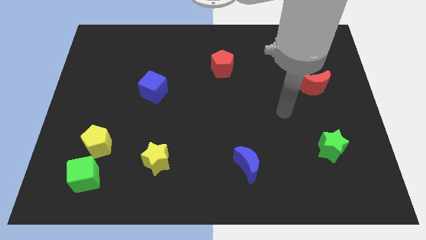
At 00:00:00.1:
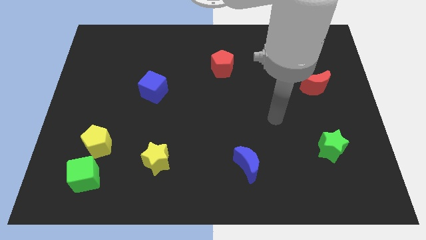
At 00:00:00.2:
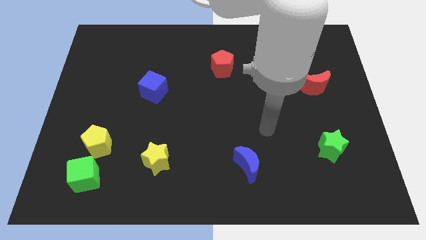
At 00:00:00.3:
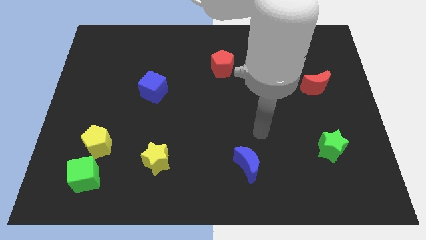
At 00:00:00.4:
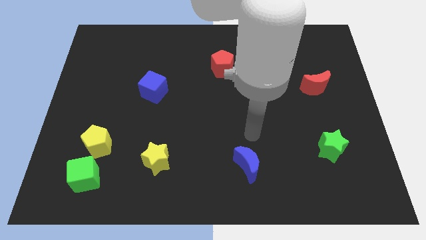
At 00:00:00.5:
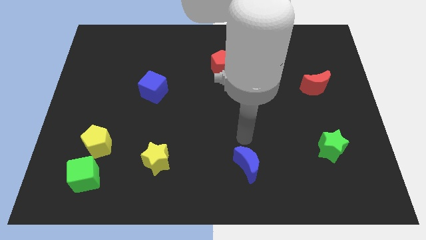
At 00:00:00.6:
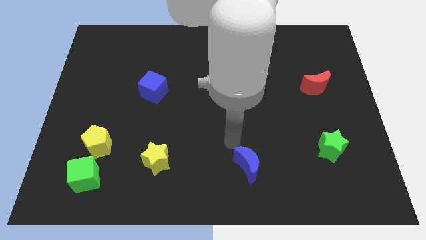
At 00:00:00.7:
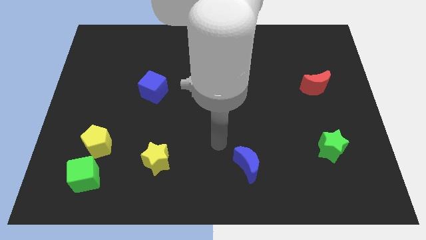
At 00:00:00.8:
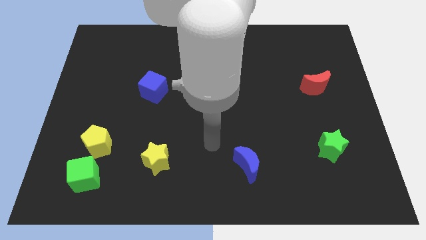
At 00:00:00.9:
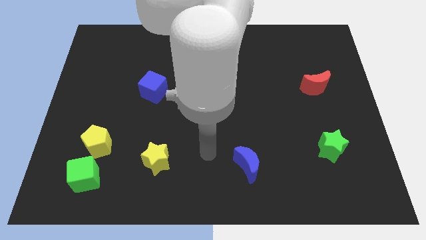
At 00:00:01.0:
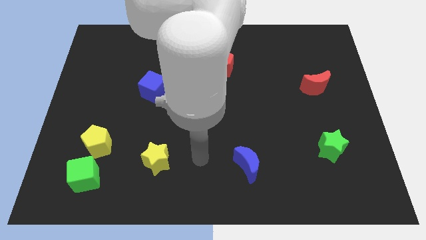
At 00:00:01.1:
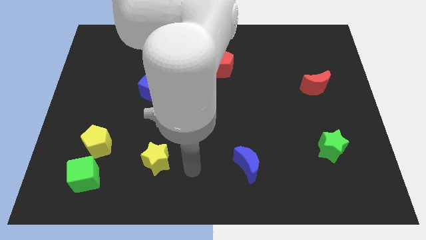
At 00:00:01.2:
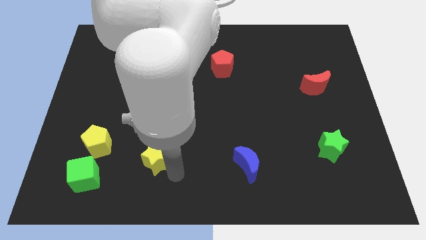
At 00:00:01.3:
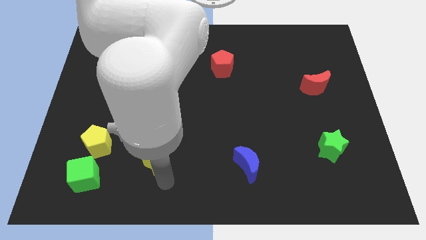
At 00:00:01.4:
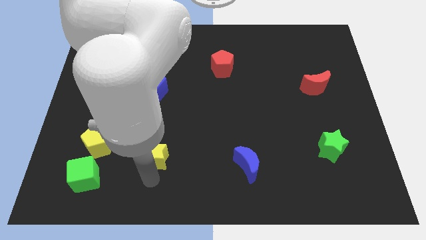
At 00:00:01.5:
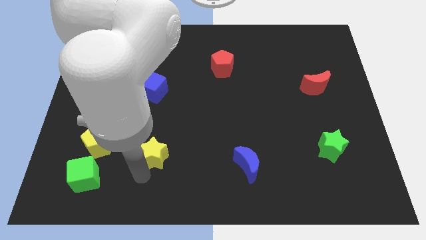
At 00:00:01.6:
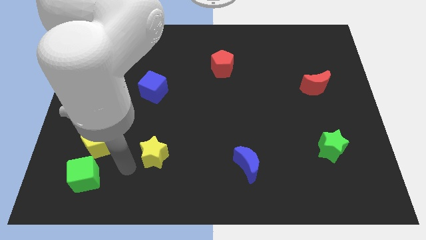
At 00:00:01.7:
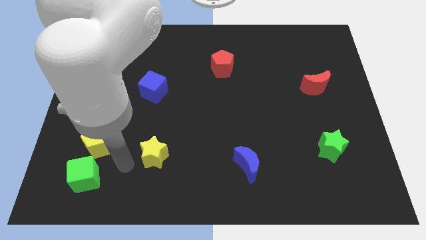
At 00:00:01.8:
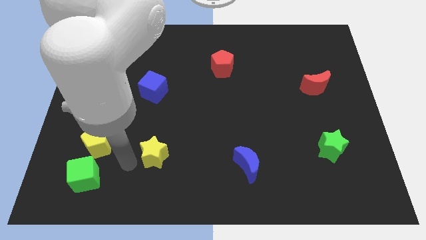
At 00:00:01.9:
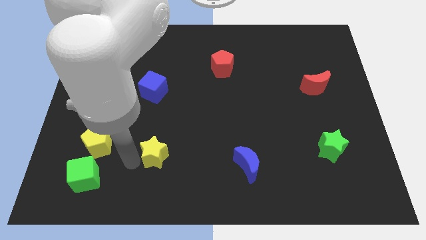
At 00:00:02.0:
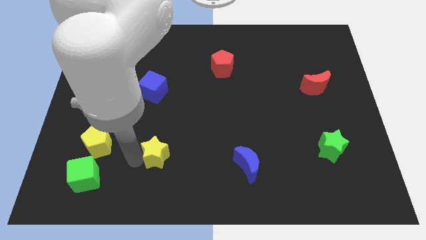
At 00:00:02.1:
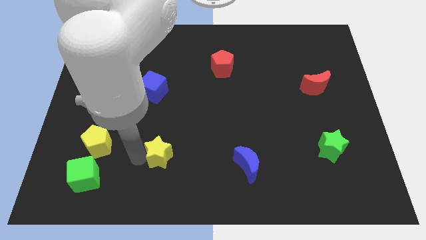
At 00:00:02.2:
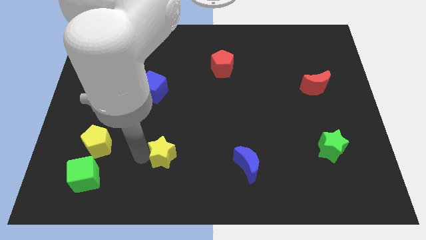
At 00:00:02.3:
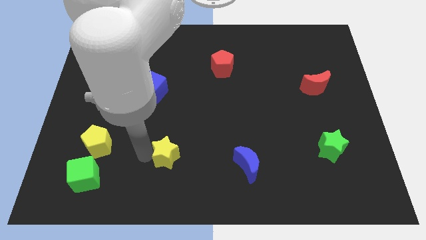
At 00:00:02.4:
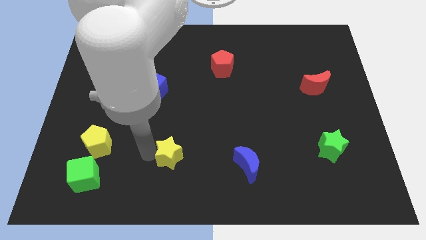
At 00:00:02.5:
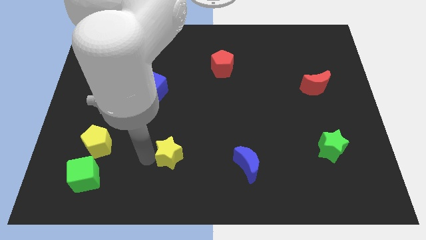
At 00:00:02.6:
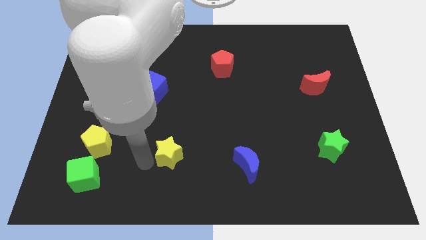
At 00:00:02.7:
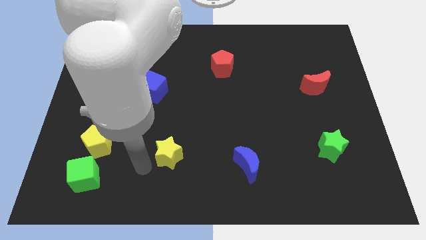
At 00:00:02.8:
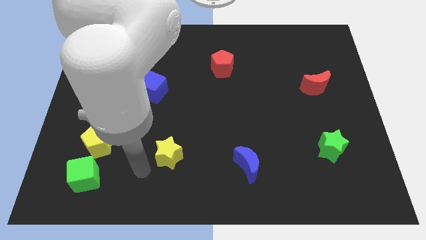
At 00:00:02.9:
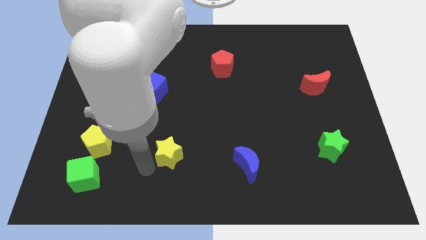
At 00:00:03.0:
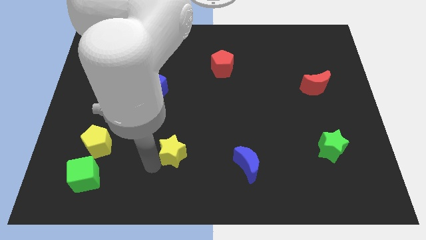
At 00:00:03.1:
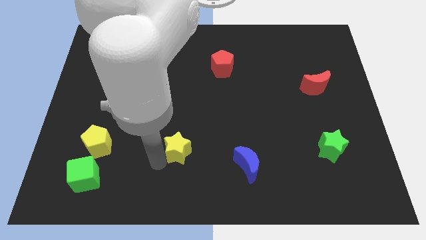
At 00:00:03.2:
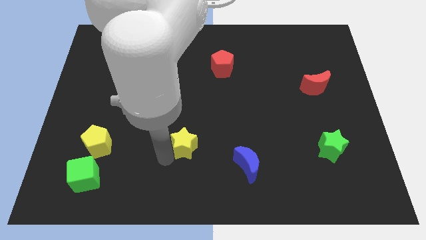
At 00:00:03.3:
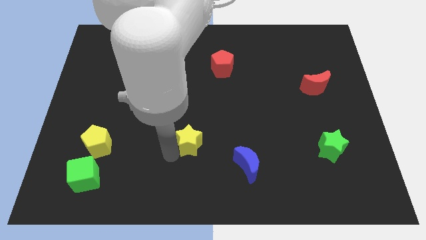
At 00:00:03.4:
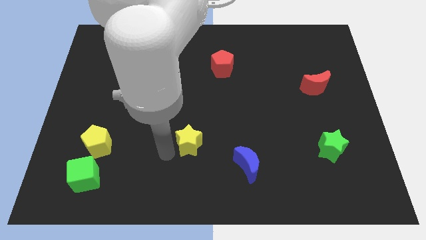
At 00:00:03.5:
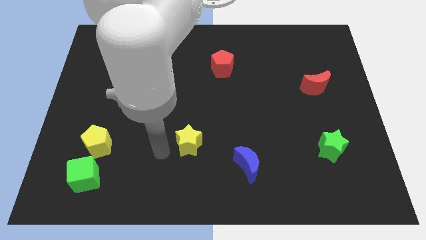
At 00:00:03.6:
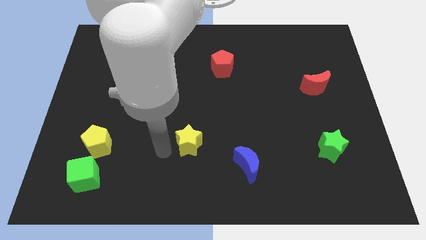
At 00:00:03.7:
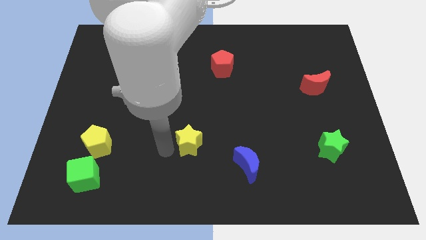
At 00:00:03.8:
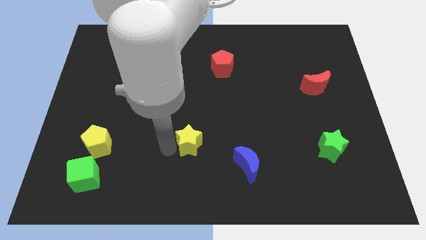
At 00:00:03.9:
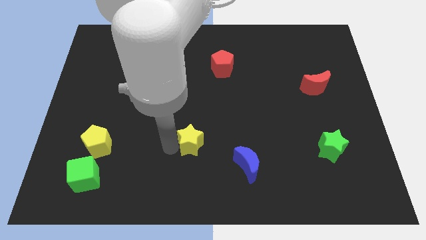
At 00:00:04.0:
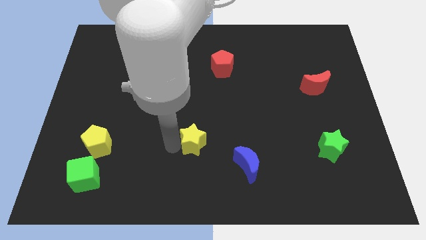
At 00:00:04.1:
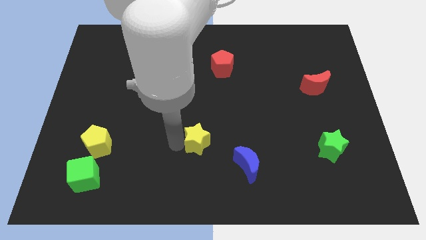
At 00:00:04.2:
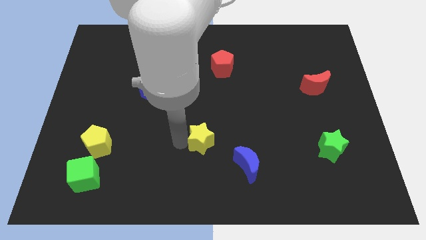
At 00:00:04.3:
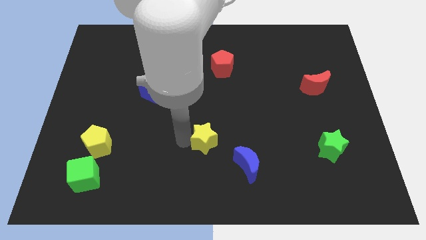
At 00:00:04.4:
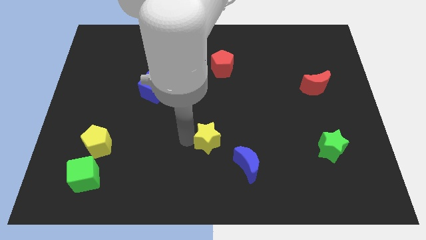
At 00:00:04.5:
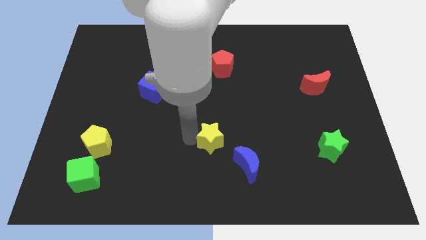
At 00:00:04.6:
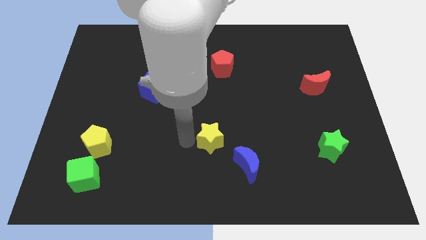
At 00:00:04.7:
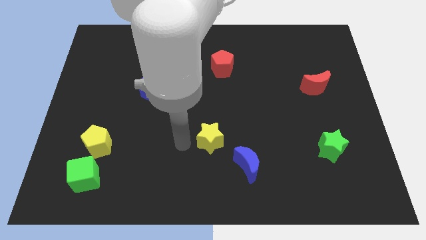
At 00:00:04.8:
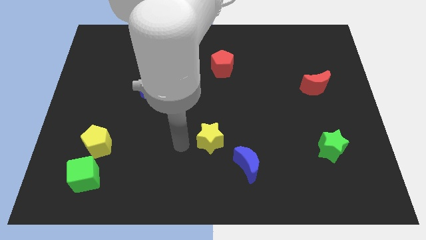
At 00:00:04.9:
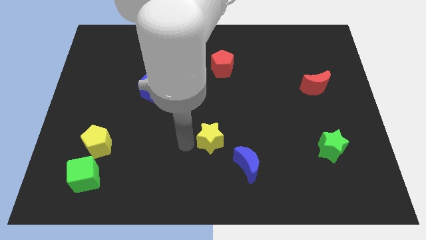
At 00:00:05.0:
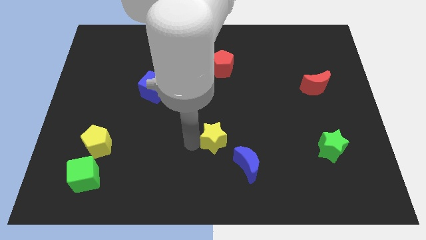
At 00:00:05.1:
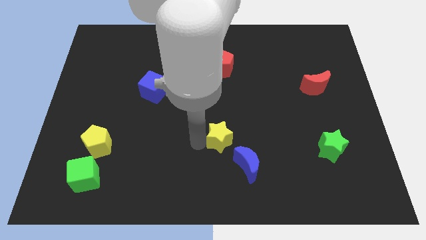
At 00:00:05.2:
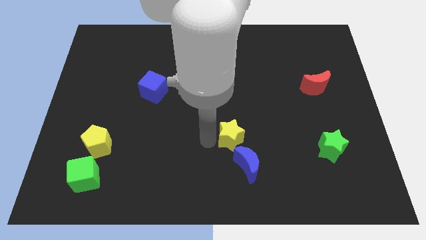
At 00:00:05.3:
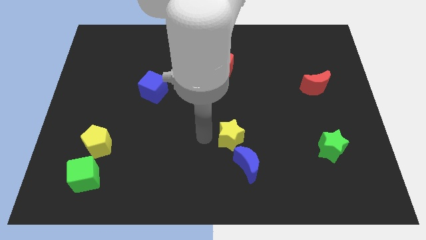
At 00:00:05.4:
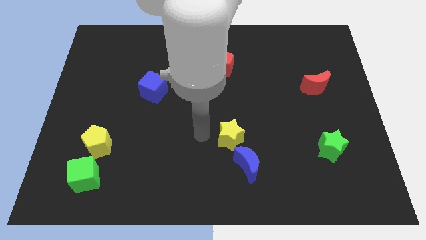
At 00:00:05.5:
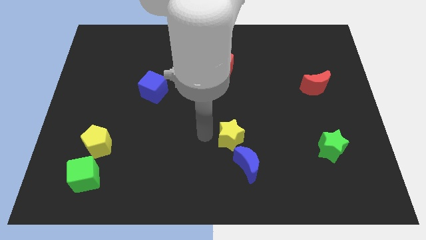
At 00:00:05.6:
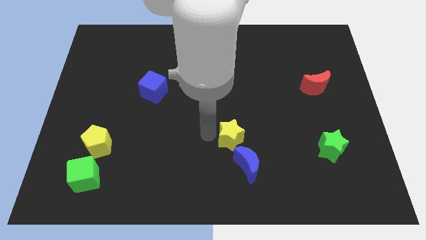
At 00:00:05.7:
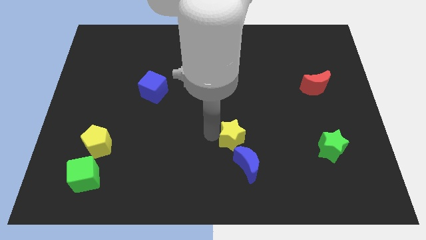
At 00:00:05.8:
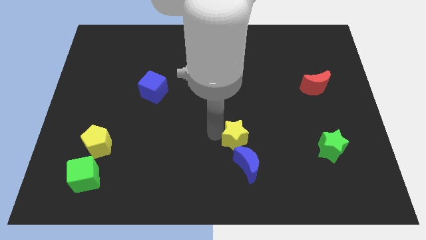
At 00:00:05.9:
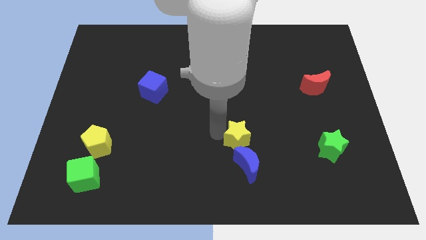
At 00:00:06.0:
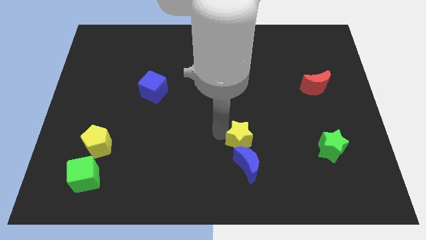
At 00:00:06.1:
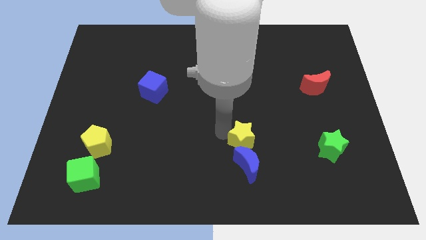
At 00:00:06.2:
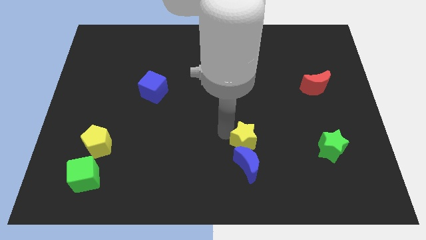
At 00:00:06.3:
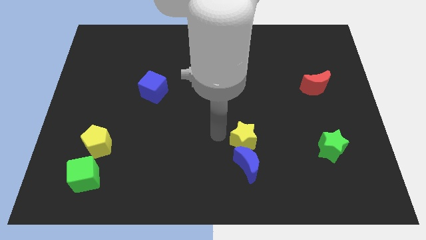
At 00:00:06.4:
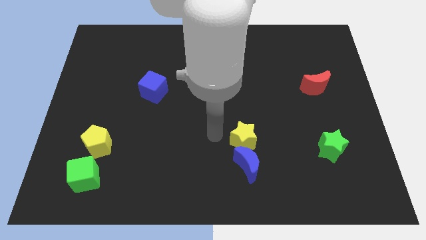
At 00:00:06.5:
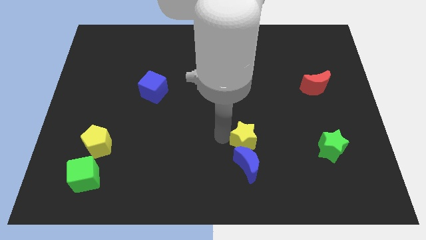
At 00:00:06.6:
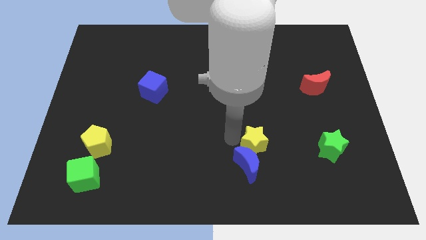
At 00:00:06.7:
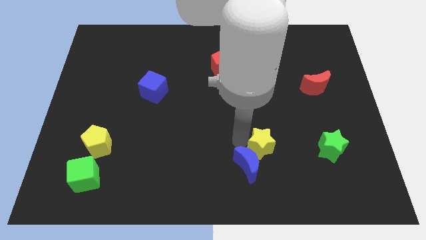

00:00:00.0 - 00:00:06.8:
slide the yellow star to the left side of the green star
